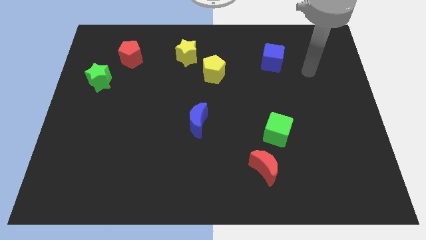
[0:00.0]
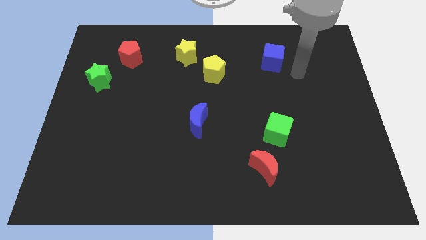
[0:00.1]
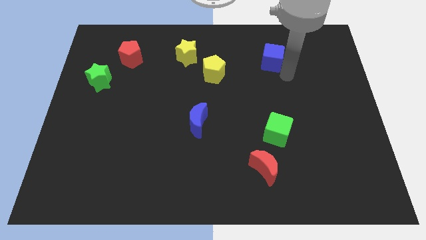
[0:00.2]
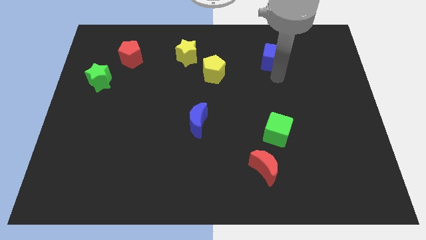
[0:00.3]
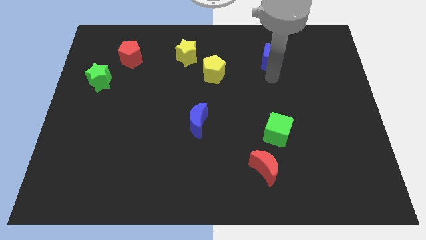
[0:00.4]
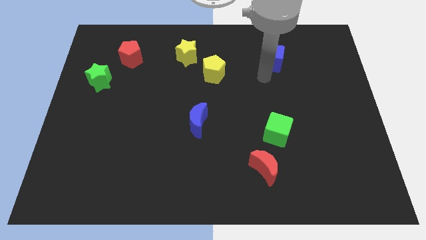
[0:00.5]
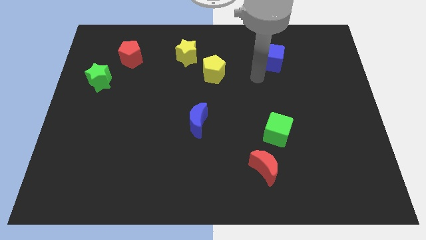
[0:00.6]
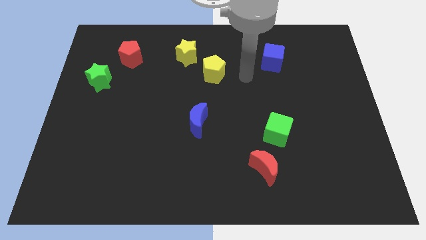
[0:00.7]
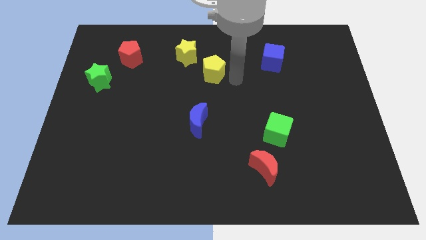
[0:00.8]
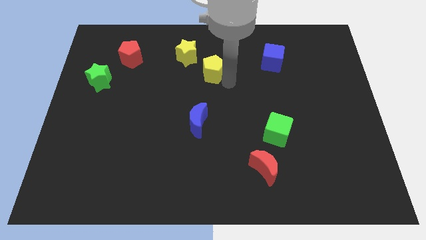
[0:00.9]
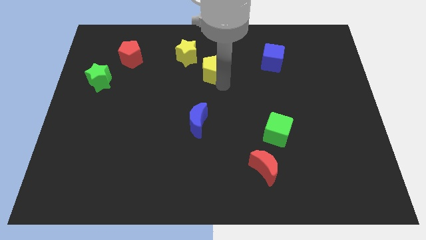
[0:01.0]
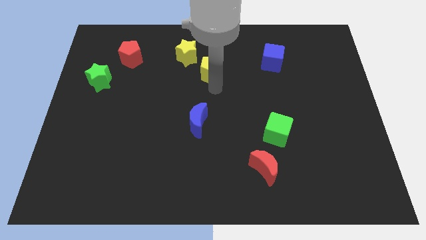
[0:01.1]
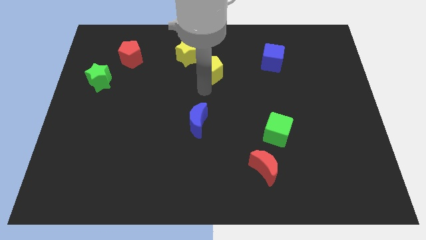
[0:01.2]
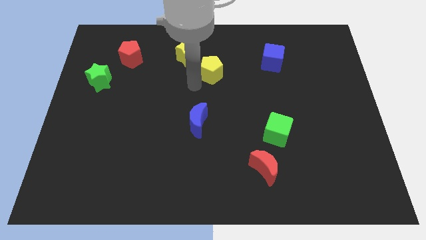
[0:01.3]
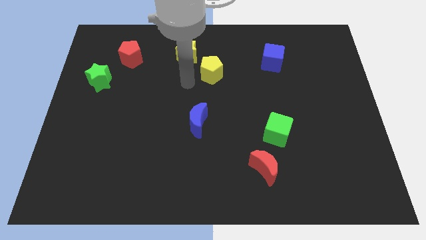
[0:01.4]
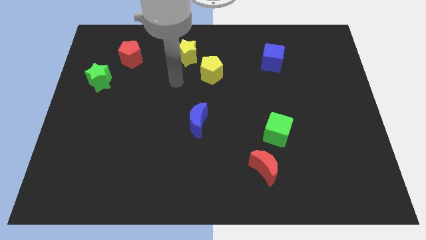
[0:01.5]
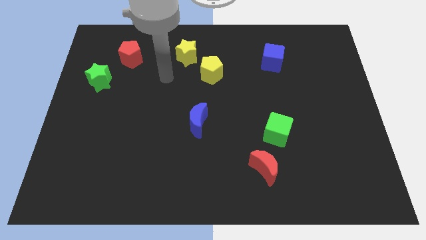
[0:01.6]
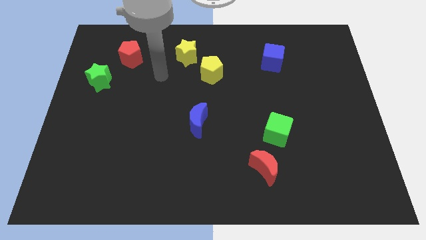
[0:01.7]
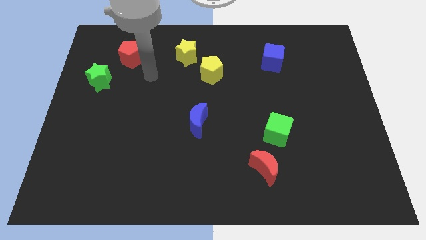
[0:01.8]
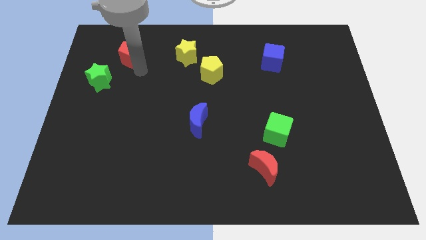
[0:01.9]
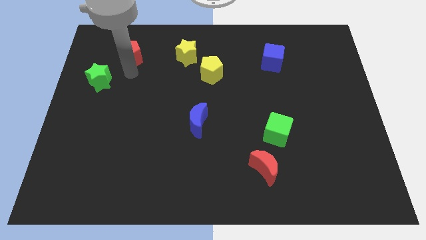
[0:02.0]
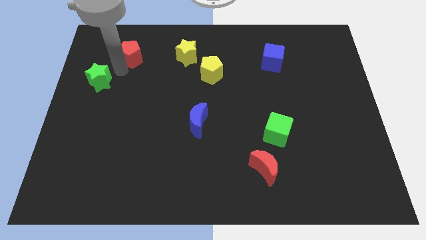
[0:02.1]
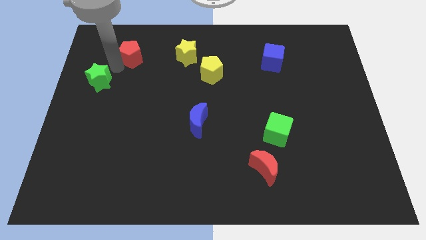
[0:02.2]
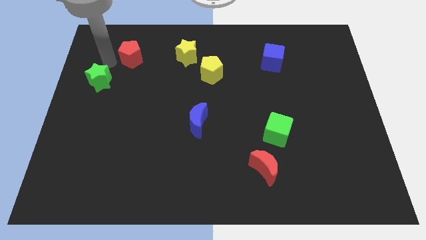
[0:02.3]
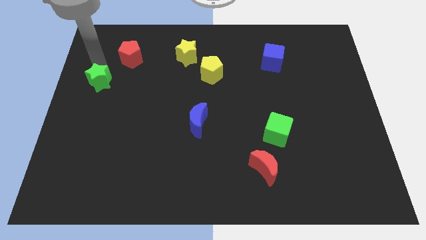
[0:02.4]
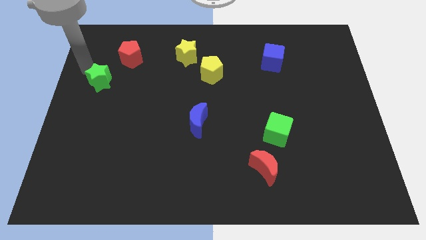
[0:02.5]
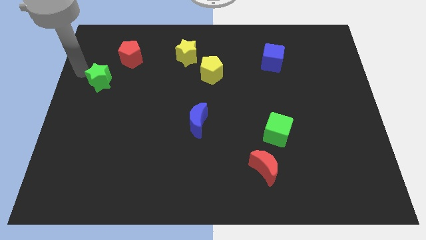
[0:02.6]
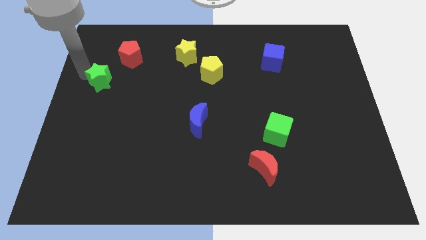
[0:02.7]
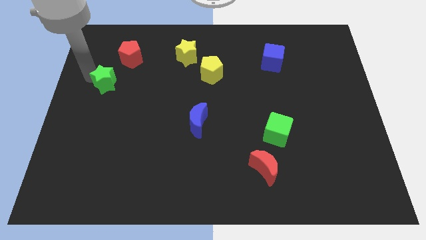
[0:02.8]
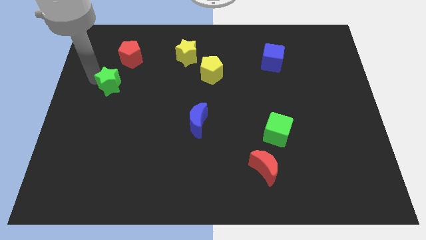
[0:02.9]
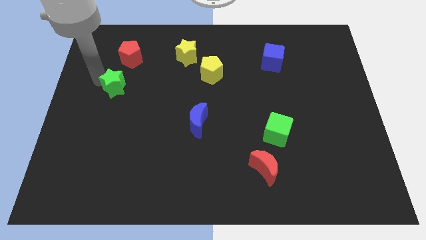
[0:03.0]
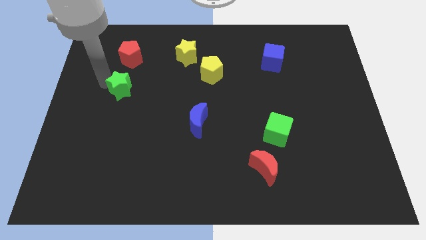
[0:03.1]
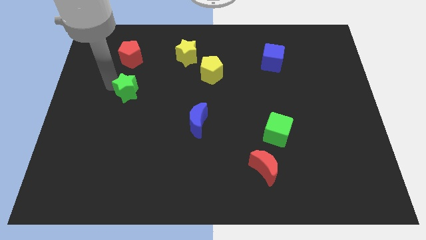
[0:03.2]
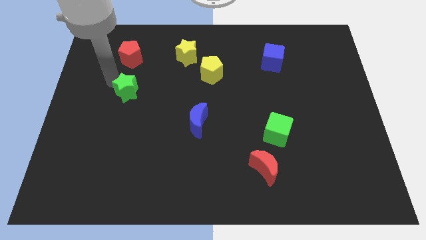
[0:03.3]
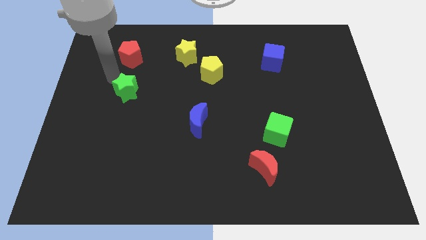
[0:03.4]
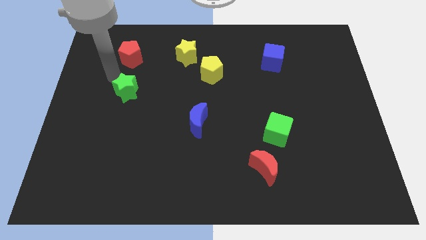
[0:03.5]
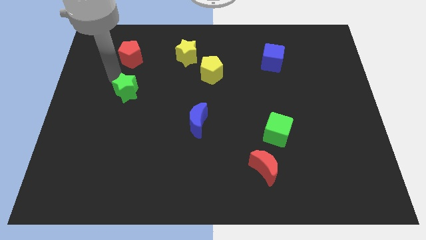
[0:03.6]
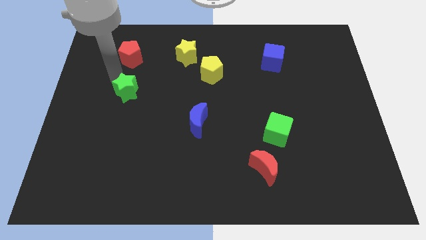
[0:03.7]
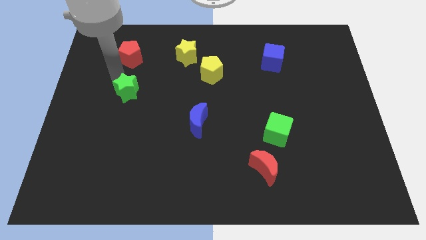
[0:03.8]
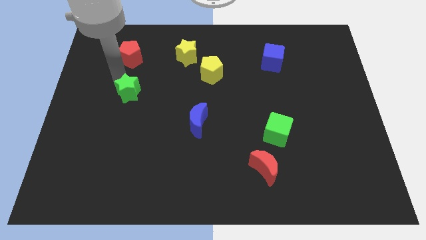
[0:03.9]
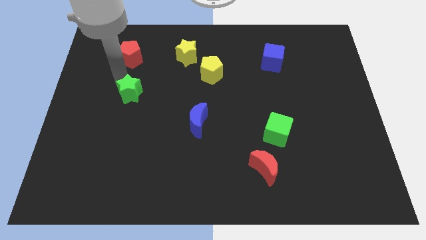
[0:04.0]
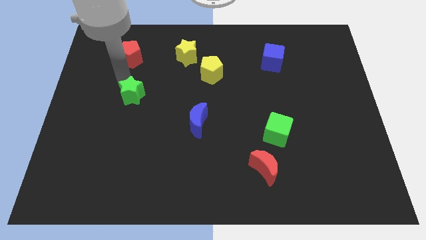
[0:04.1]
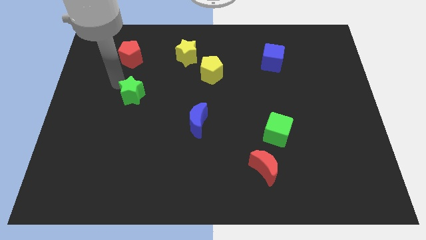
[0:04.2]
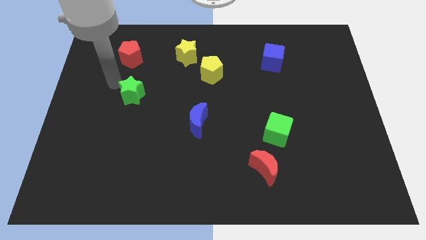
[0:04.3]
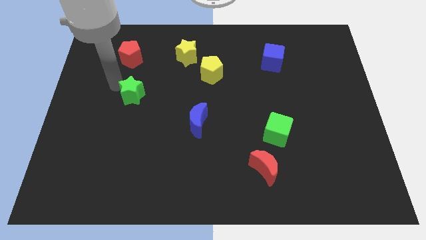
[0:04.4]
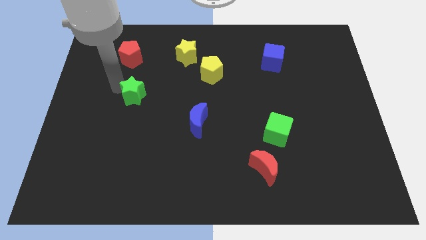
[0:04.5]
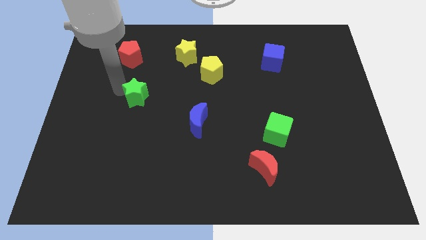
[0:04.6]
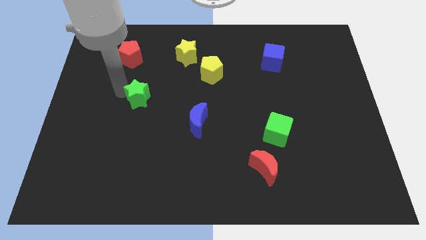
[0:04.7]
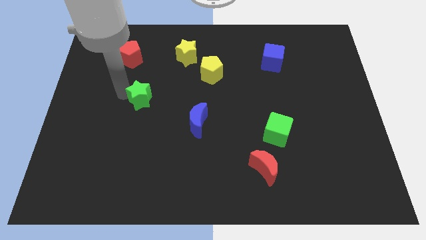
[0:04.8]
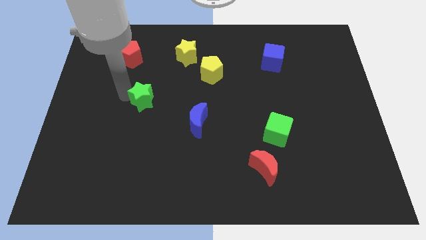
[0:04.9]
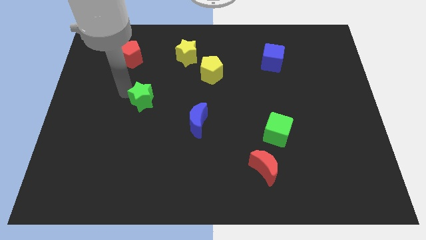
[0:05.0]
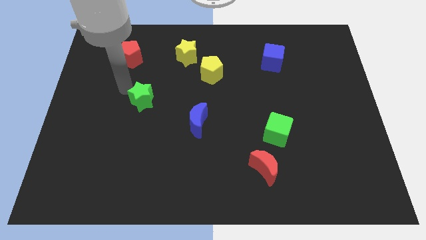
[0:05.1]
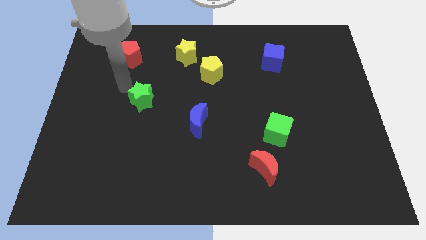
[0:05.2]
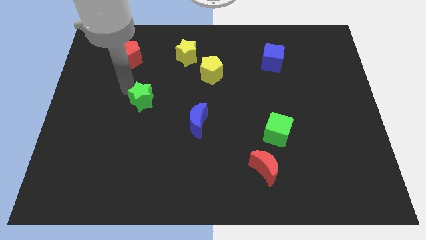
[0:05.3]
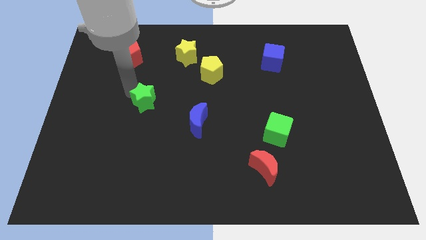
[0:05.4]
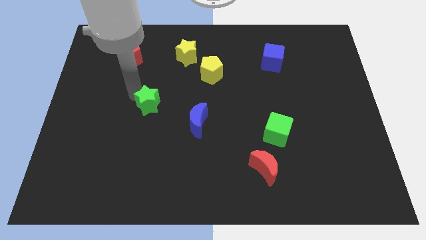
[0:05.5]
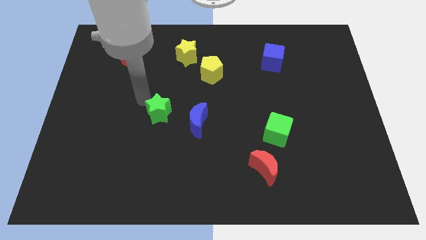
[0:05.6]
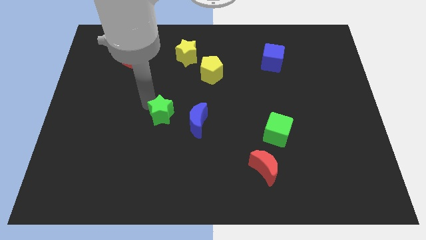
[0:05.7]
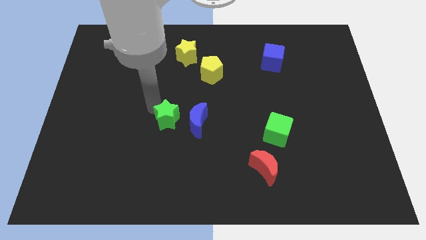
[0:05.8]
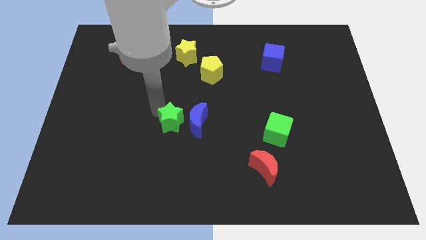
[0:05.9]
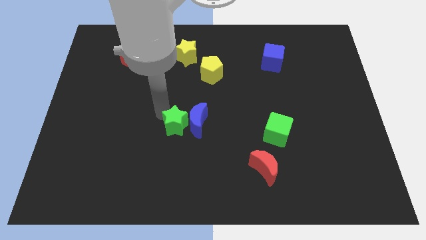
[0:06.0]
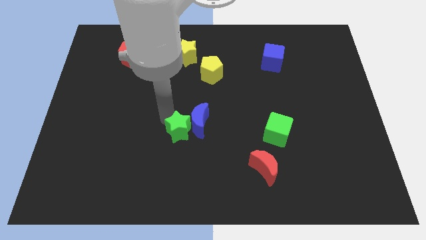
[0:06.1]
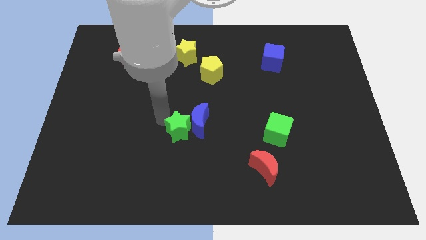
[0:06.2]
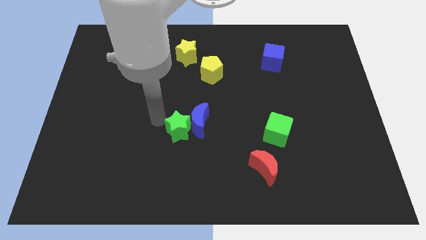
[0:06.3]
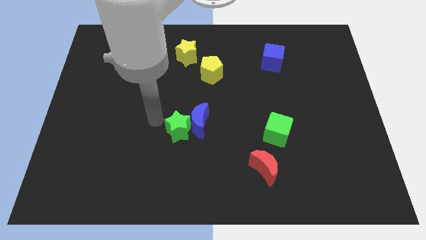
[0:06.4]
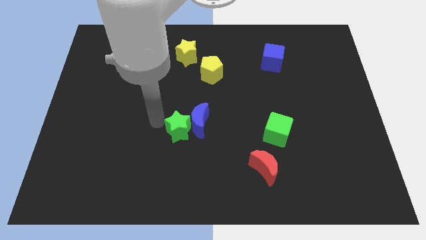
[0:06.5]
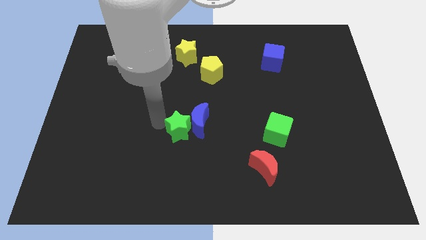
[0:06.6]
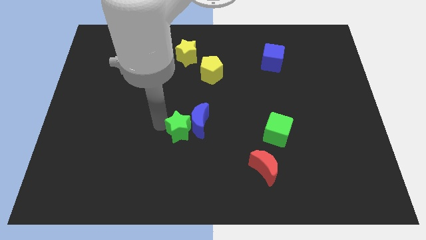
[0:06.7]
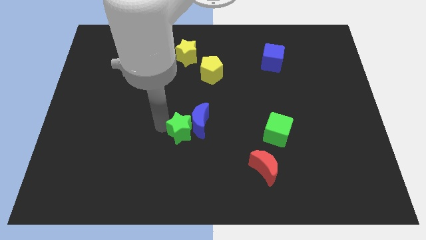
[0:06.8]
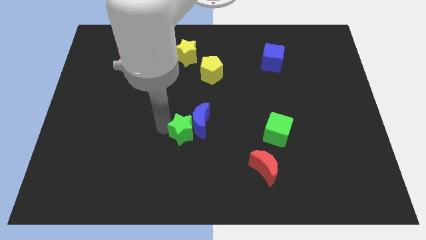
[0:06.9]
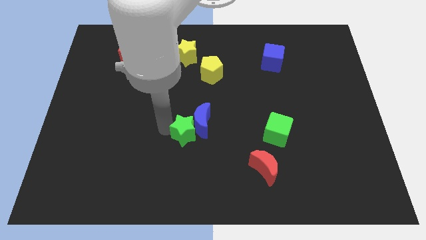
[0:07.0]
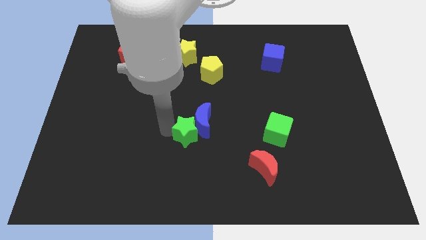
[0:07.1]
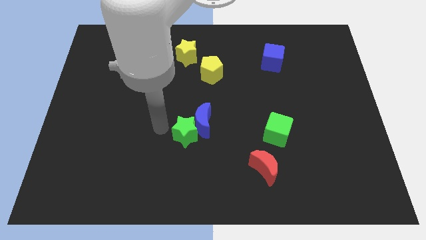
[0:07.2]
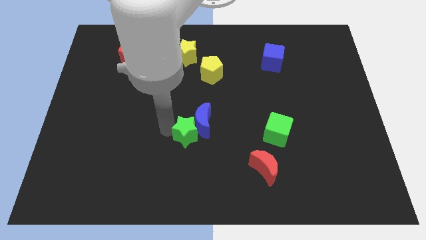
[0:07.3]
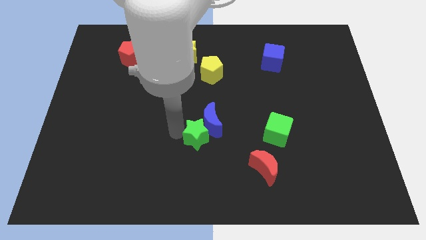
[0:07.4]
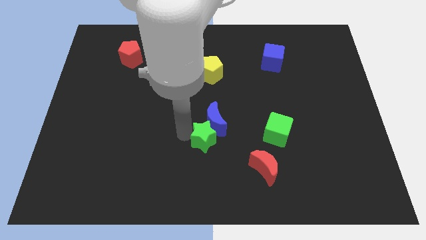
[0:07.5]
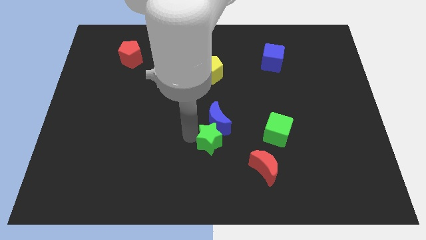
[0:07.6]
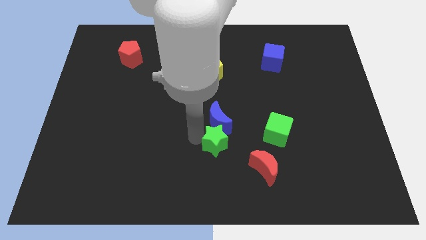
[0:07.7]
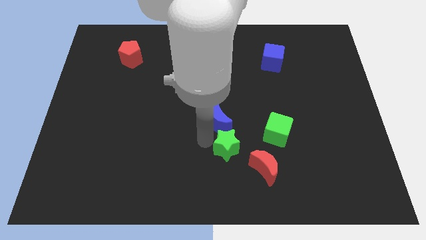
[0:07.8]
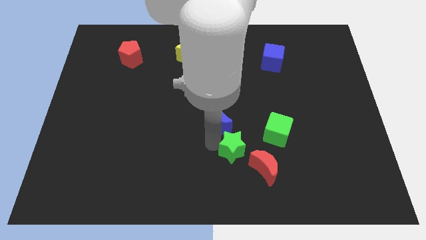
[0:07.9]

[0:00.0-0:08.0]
slide the green star to the bottom left of the green cube
